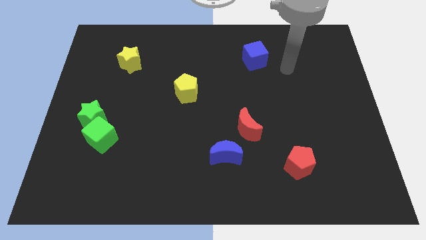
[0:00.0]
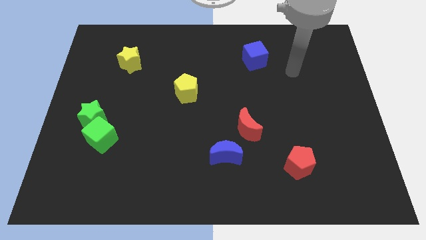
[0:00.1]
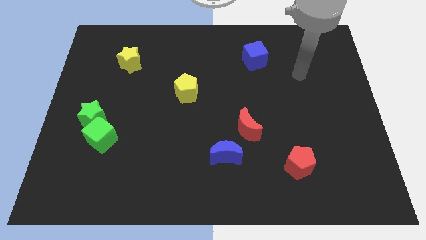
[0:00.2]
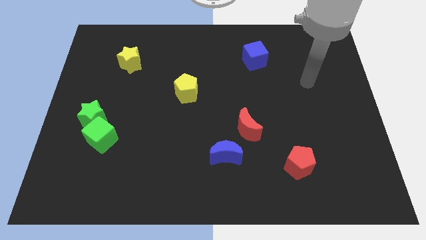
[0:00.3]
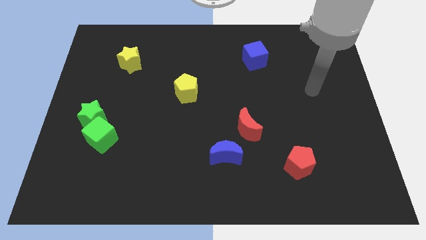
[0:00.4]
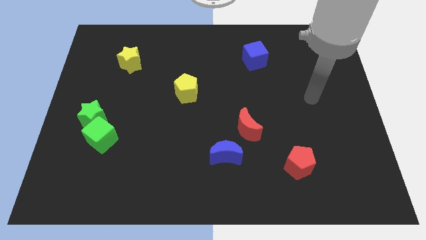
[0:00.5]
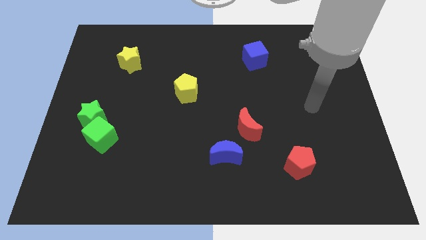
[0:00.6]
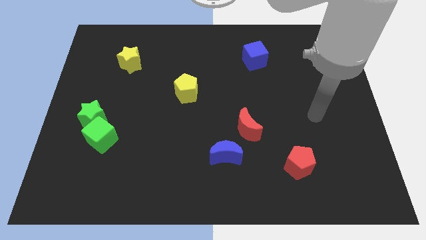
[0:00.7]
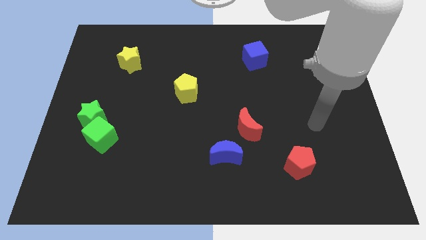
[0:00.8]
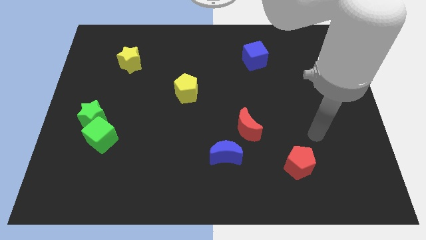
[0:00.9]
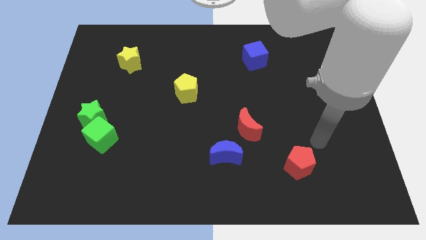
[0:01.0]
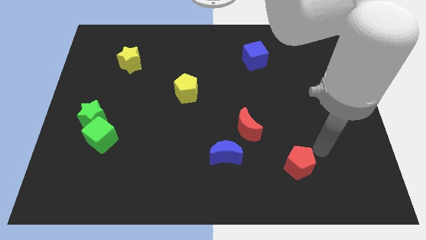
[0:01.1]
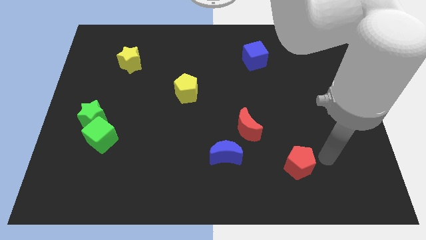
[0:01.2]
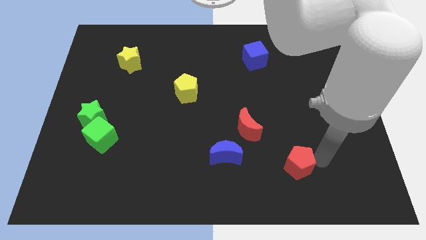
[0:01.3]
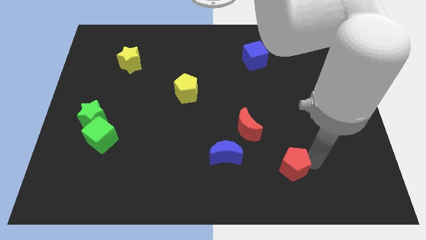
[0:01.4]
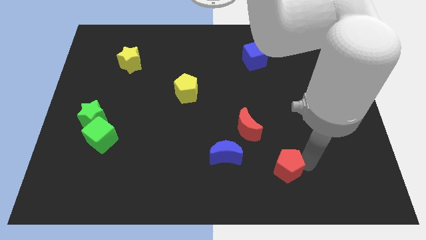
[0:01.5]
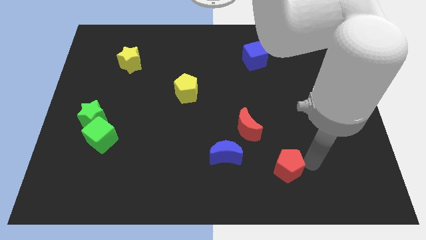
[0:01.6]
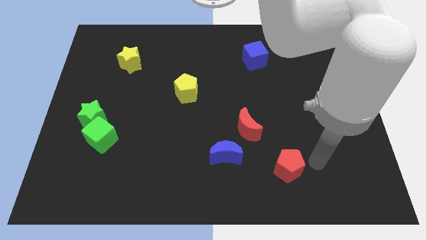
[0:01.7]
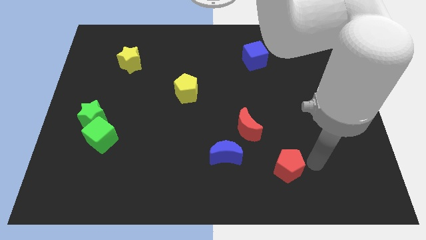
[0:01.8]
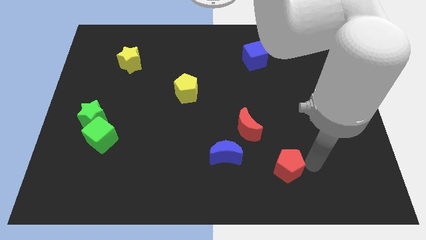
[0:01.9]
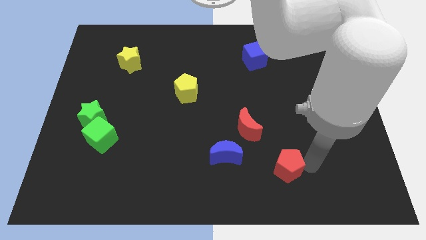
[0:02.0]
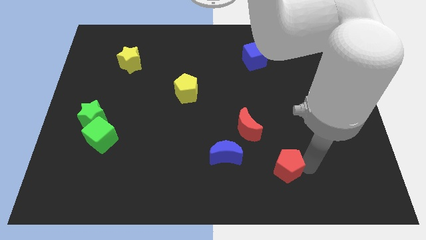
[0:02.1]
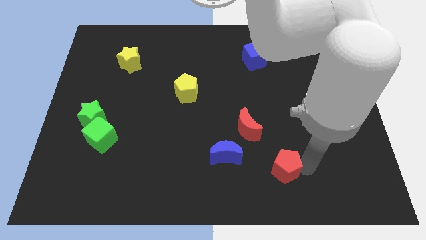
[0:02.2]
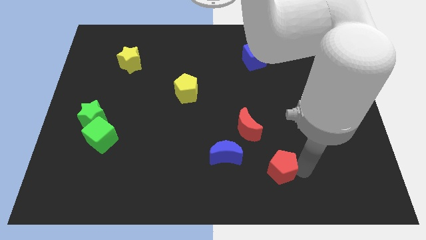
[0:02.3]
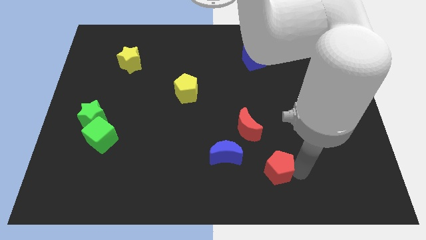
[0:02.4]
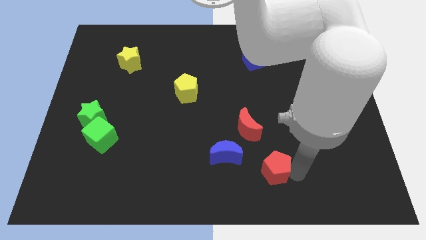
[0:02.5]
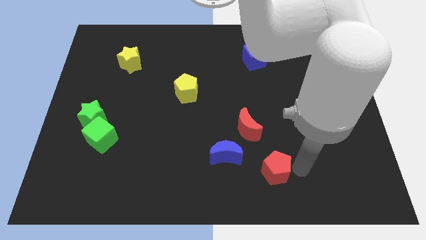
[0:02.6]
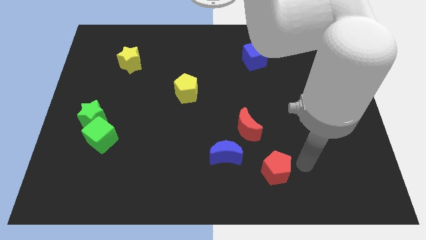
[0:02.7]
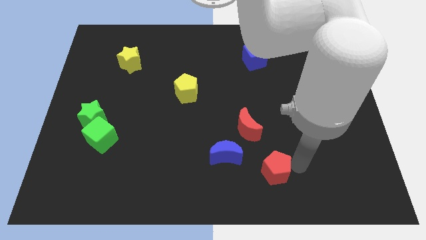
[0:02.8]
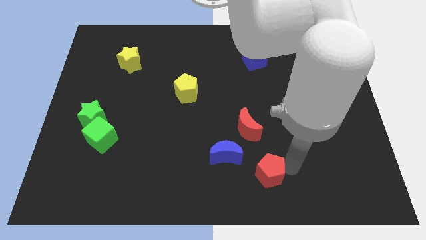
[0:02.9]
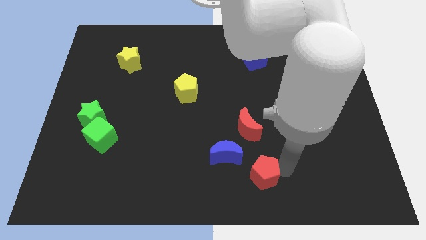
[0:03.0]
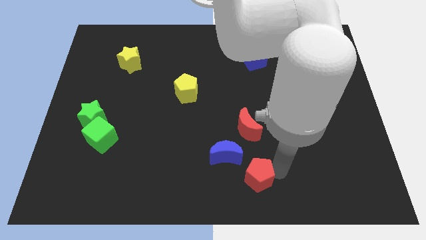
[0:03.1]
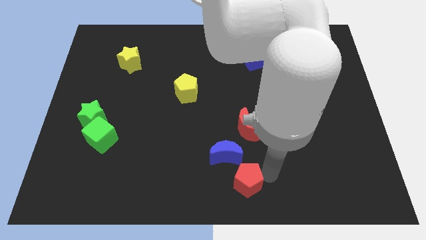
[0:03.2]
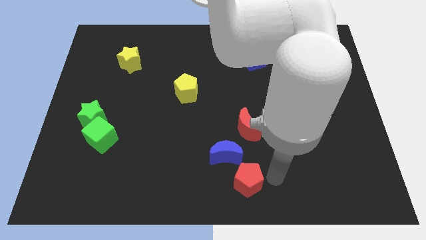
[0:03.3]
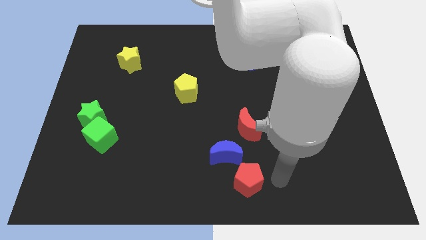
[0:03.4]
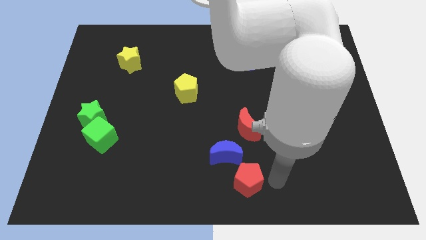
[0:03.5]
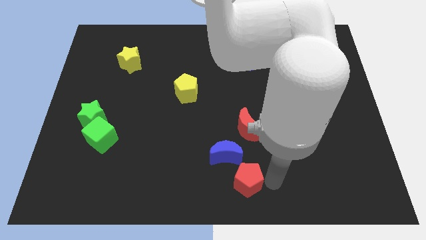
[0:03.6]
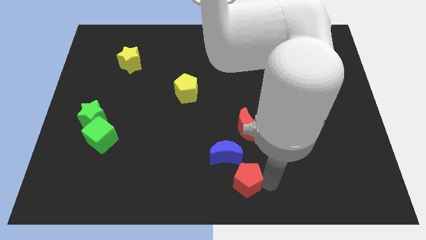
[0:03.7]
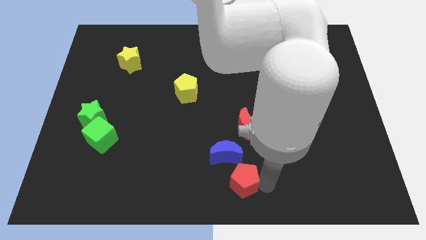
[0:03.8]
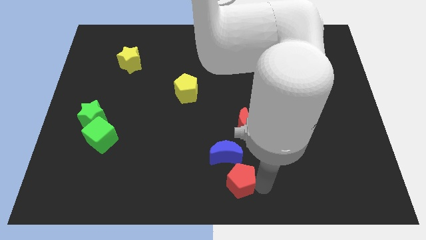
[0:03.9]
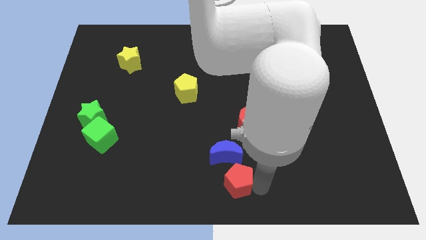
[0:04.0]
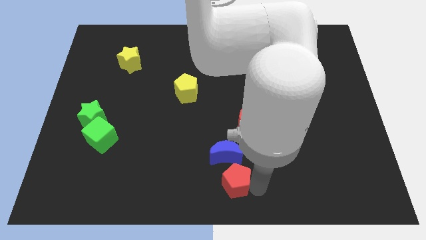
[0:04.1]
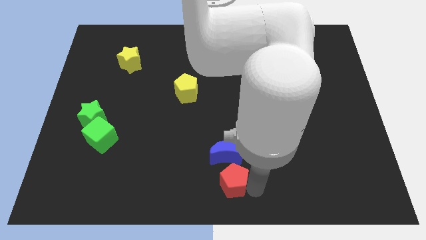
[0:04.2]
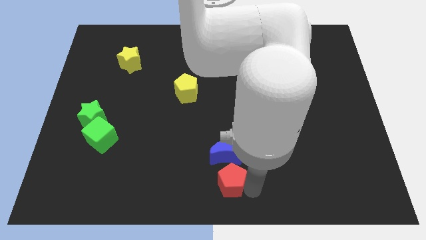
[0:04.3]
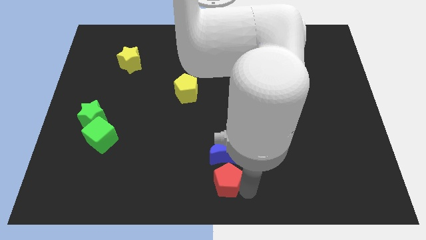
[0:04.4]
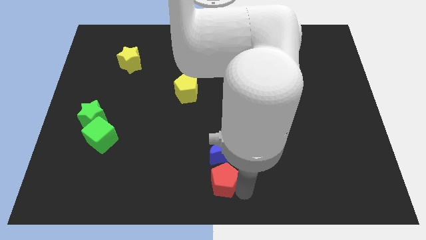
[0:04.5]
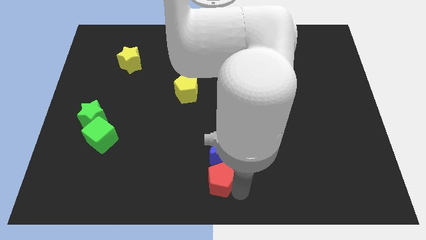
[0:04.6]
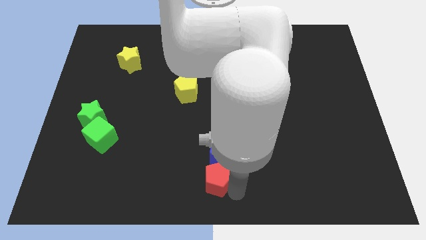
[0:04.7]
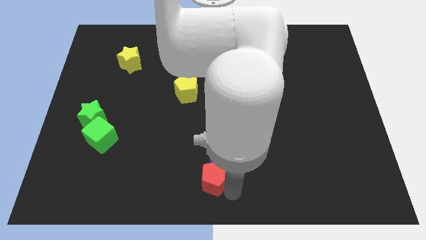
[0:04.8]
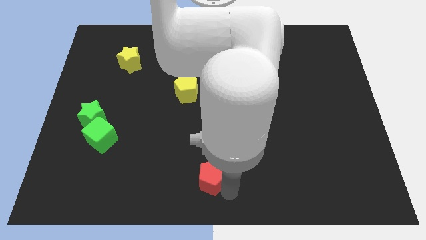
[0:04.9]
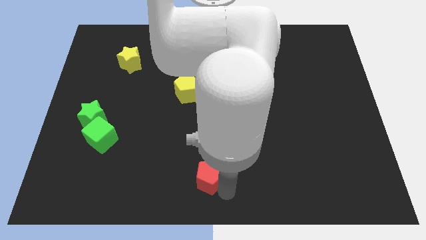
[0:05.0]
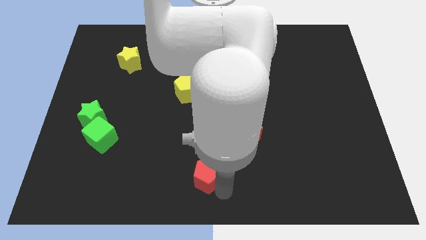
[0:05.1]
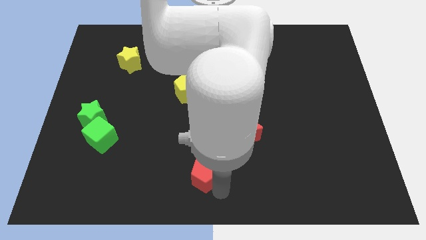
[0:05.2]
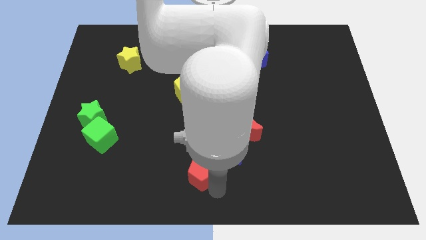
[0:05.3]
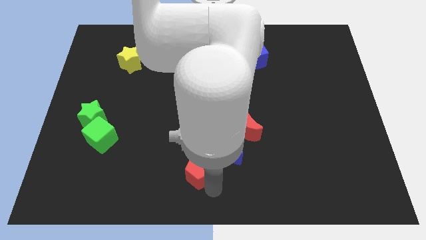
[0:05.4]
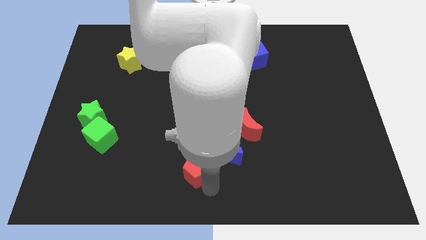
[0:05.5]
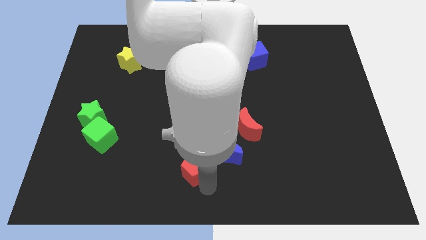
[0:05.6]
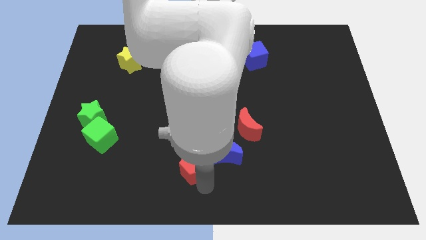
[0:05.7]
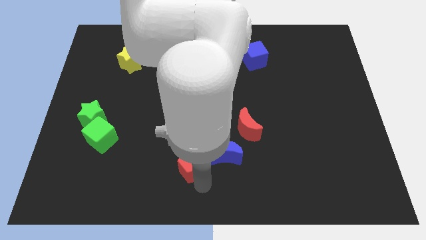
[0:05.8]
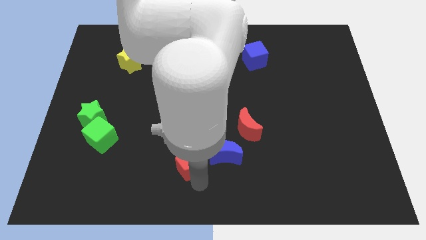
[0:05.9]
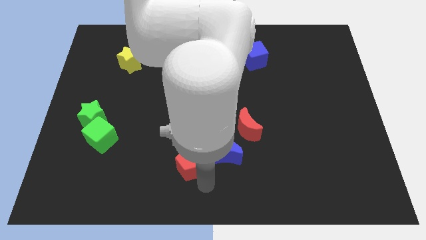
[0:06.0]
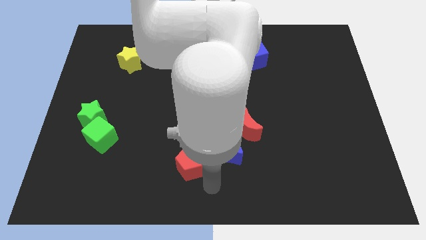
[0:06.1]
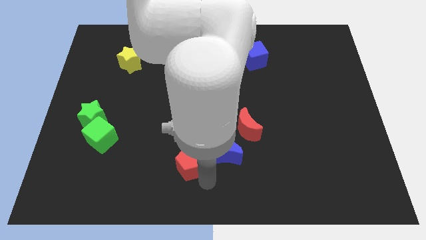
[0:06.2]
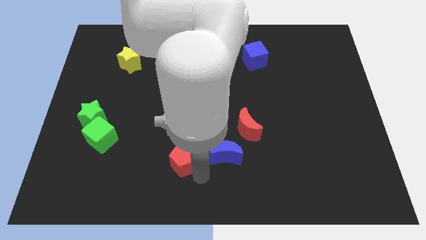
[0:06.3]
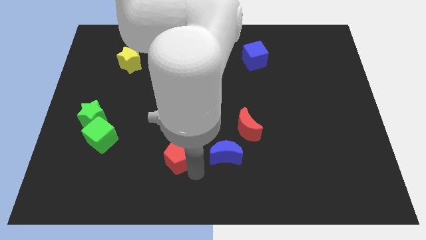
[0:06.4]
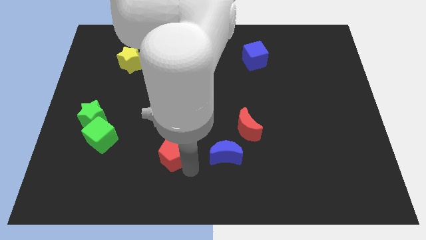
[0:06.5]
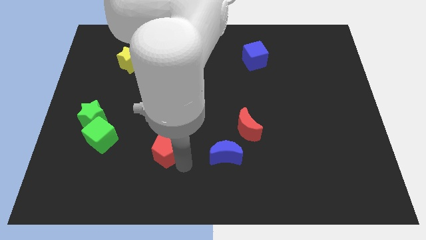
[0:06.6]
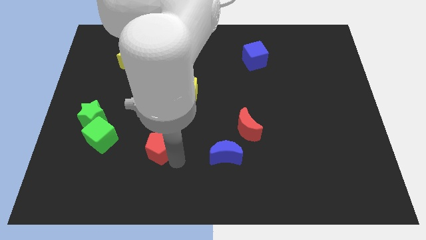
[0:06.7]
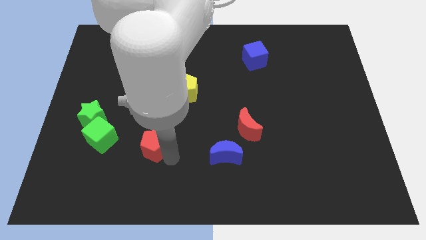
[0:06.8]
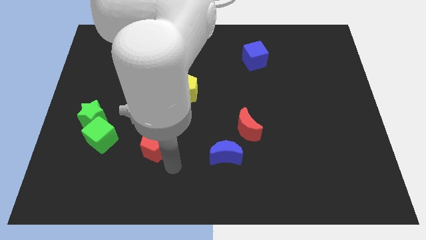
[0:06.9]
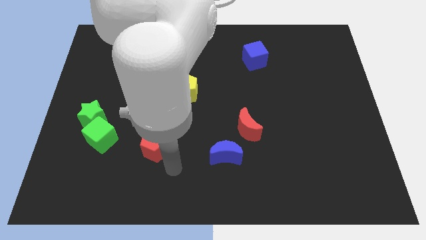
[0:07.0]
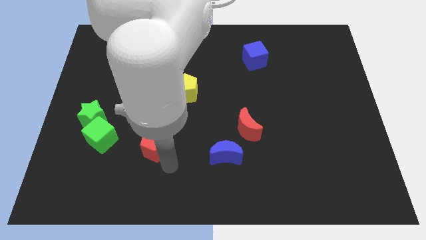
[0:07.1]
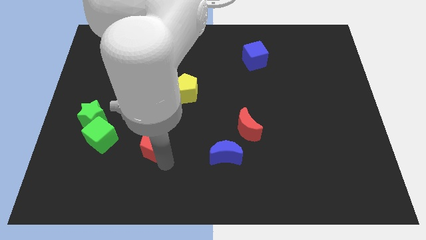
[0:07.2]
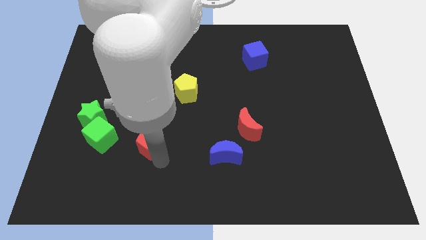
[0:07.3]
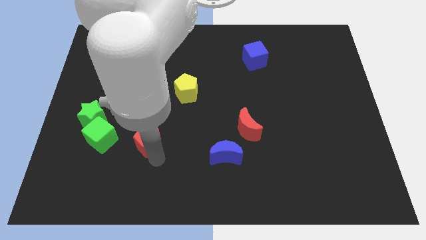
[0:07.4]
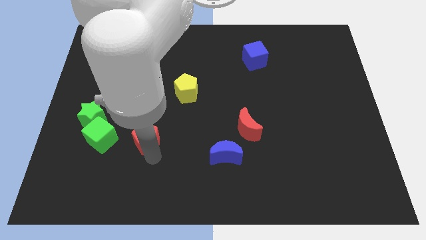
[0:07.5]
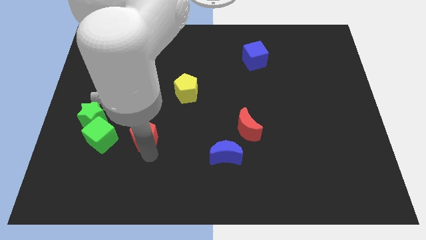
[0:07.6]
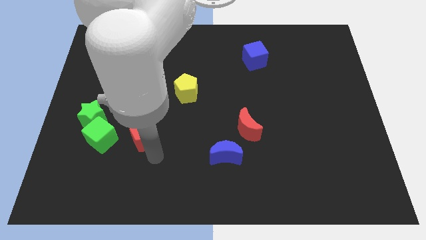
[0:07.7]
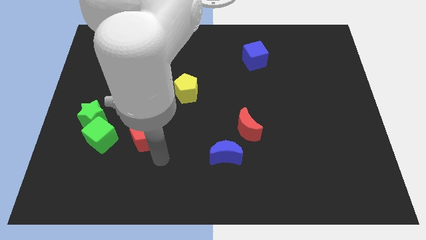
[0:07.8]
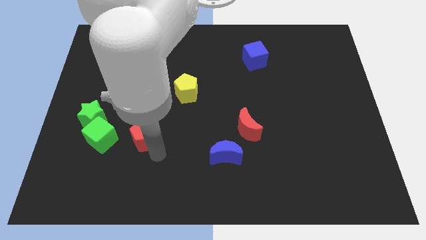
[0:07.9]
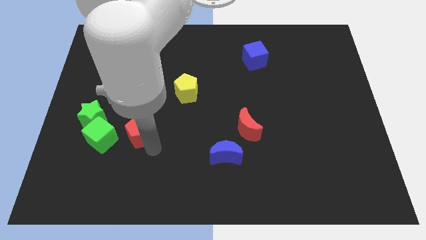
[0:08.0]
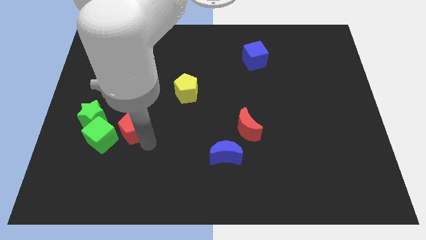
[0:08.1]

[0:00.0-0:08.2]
put the red pentagon to the top right of the green cube
